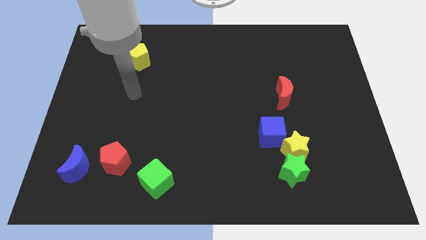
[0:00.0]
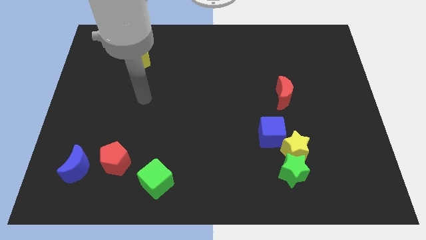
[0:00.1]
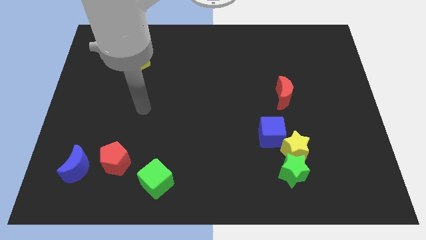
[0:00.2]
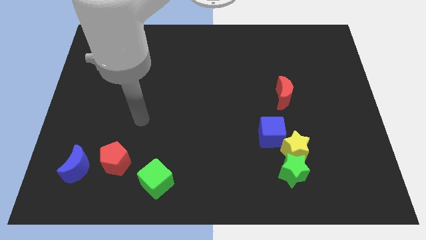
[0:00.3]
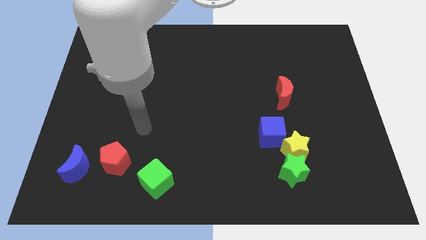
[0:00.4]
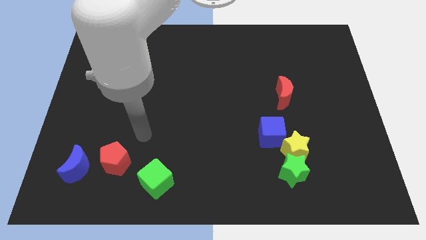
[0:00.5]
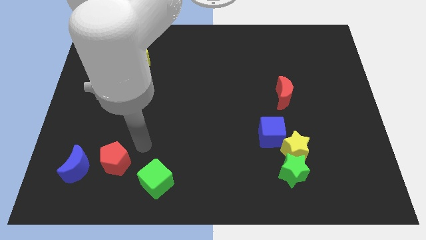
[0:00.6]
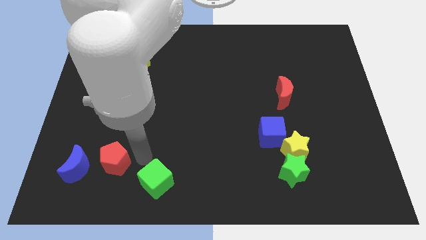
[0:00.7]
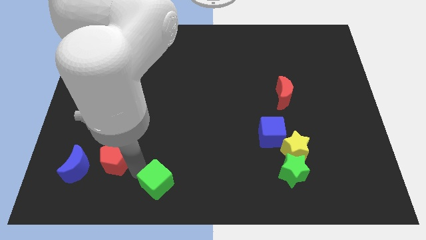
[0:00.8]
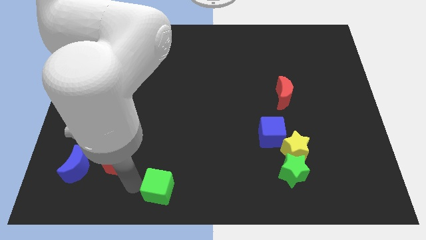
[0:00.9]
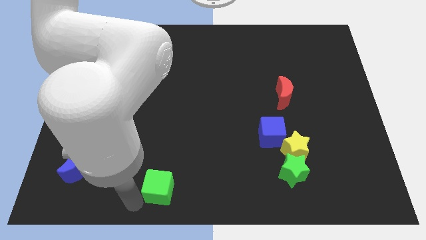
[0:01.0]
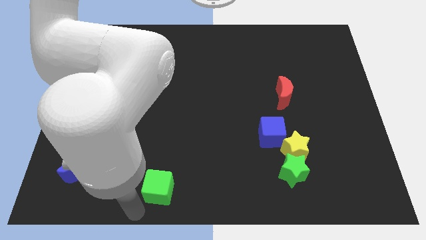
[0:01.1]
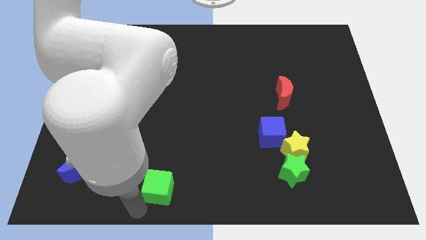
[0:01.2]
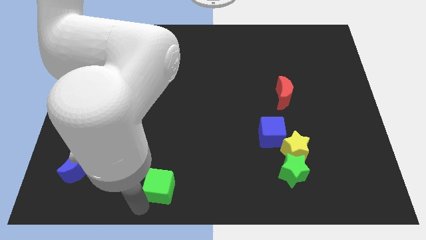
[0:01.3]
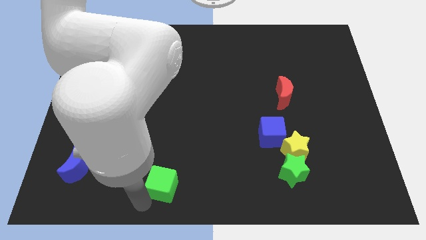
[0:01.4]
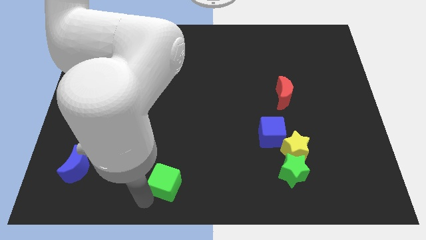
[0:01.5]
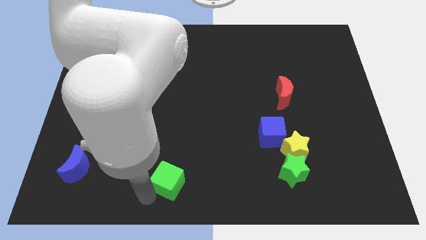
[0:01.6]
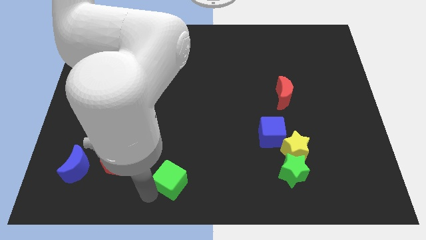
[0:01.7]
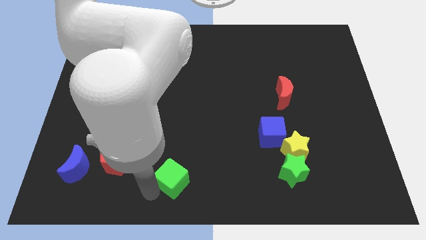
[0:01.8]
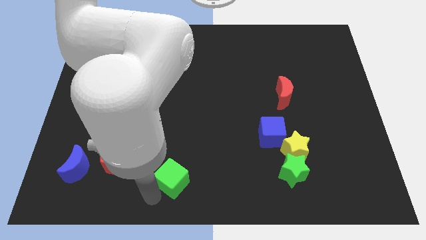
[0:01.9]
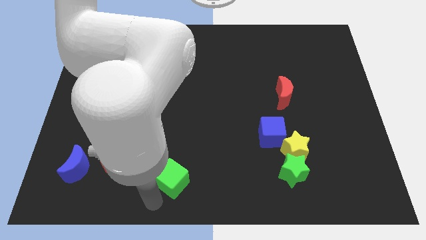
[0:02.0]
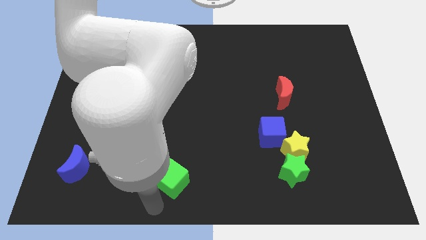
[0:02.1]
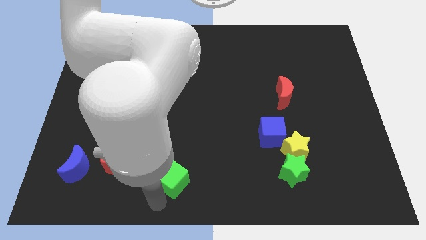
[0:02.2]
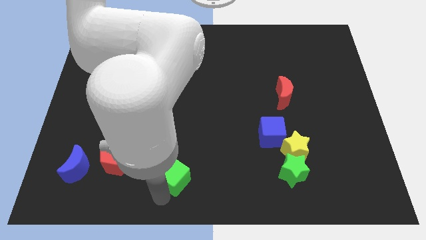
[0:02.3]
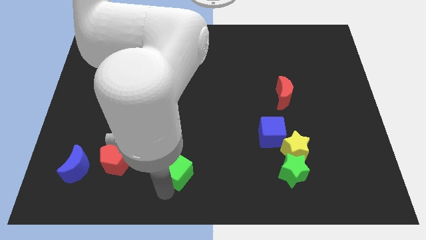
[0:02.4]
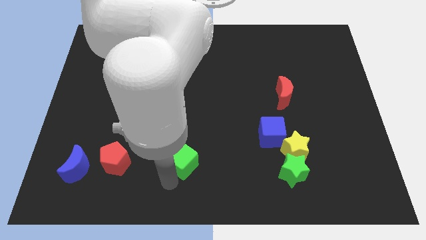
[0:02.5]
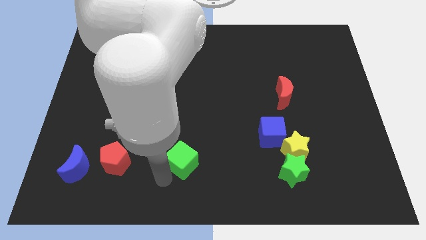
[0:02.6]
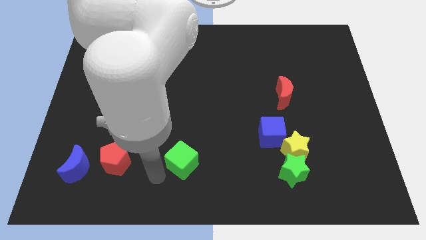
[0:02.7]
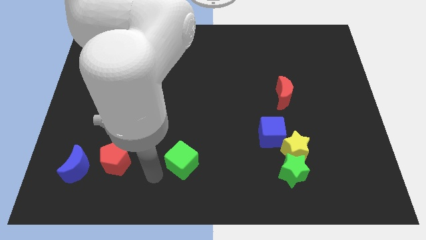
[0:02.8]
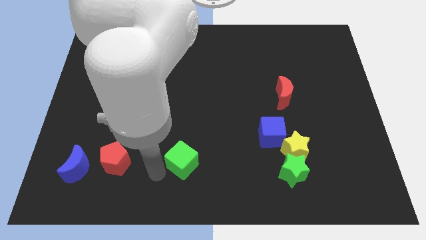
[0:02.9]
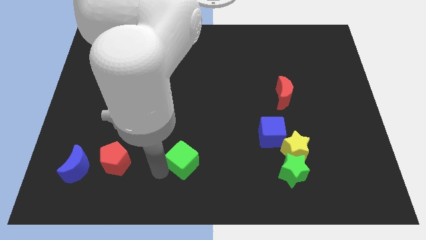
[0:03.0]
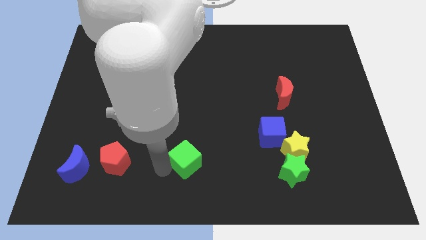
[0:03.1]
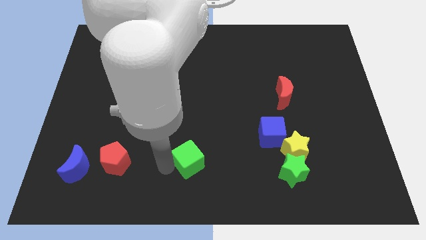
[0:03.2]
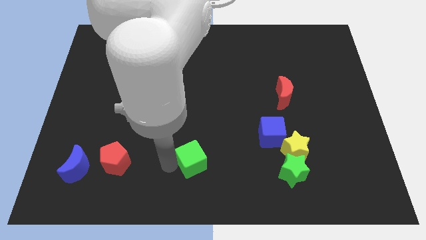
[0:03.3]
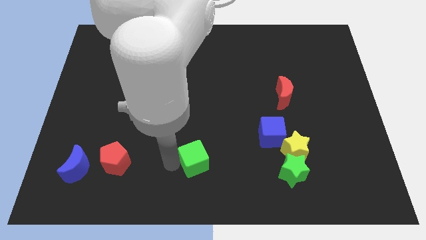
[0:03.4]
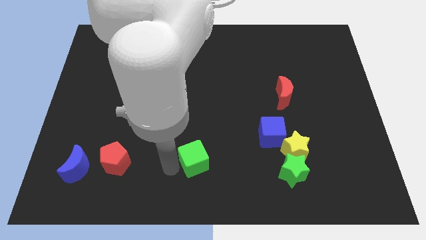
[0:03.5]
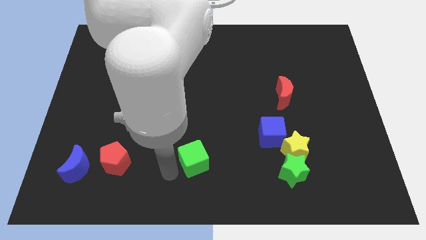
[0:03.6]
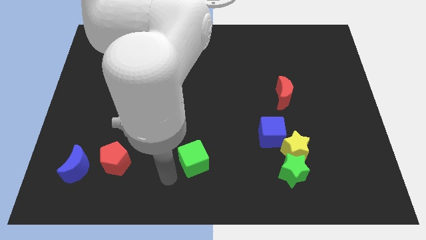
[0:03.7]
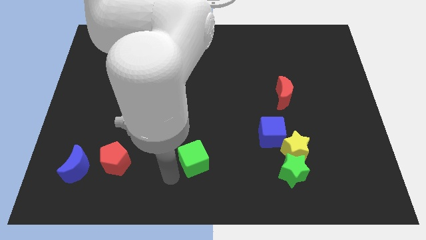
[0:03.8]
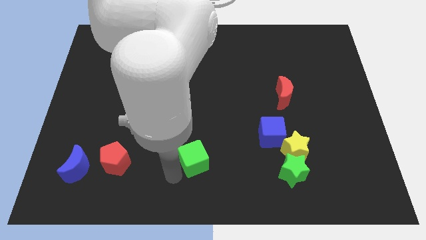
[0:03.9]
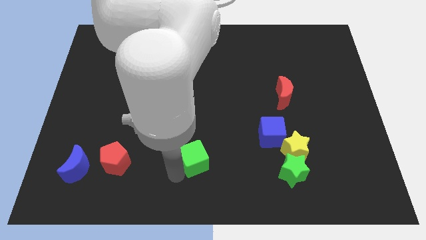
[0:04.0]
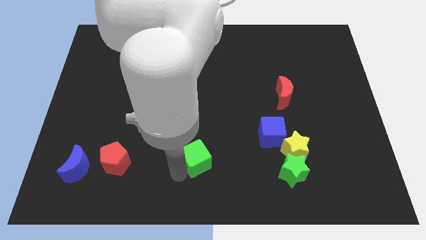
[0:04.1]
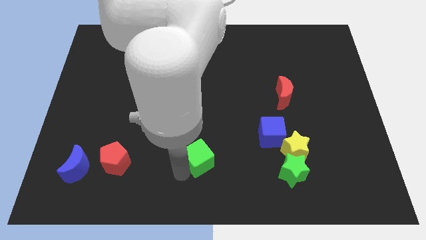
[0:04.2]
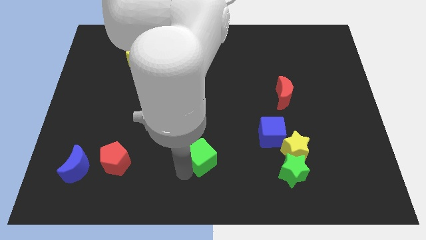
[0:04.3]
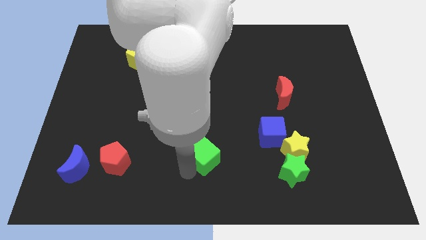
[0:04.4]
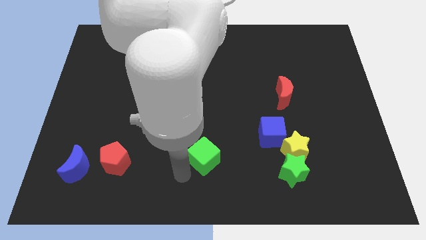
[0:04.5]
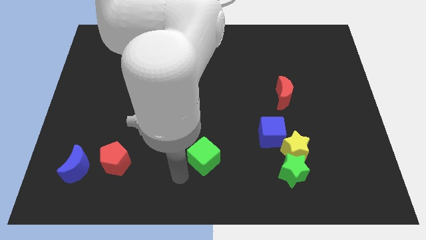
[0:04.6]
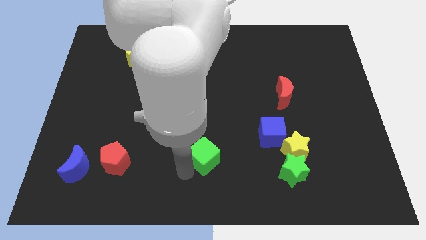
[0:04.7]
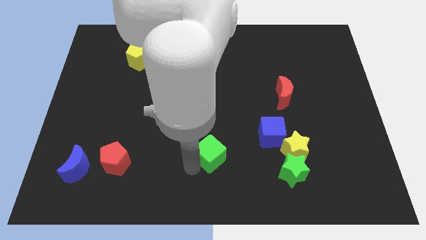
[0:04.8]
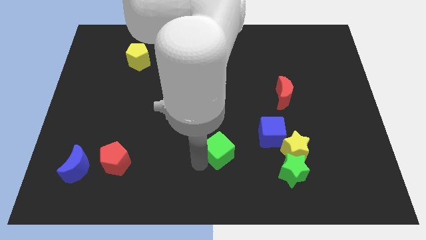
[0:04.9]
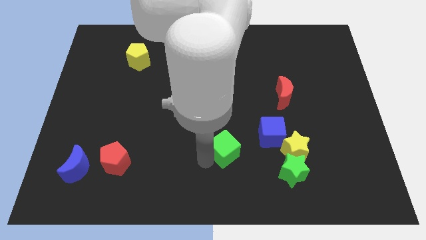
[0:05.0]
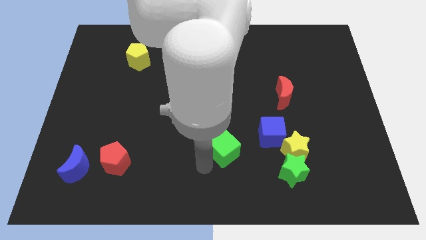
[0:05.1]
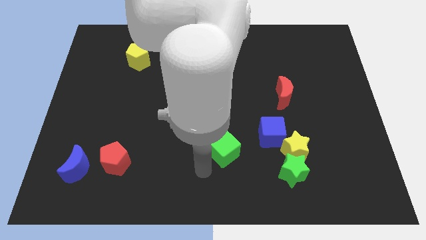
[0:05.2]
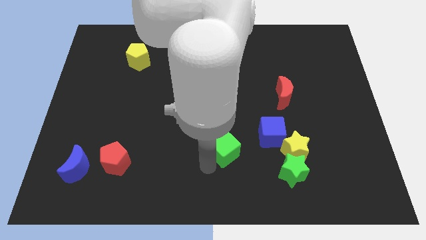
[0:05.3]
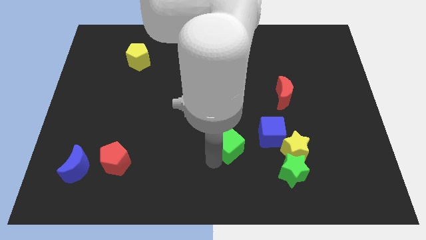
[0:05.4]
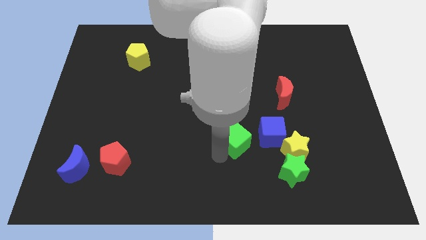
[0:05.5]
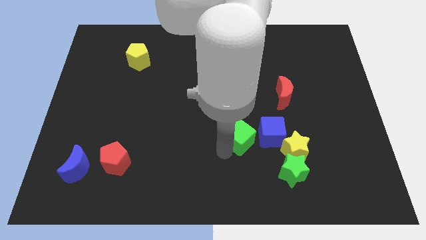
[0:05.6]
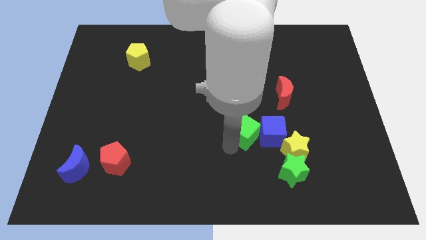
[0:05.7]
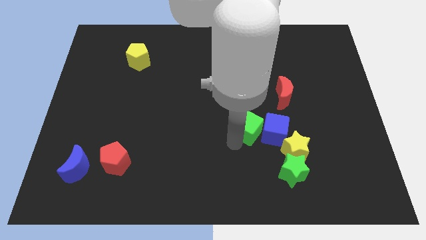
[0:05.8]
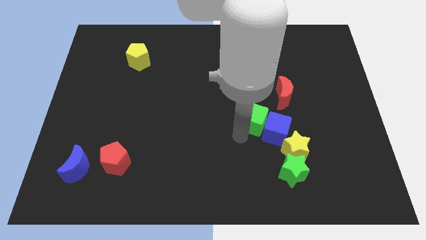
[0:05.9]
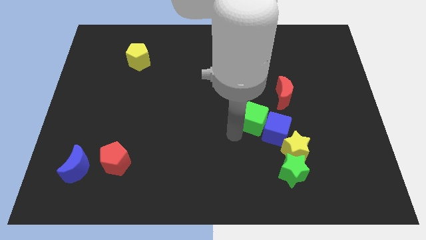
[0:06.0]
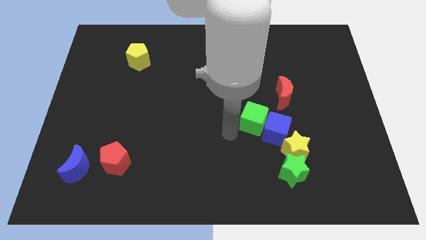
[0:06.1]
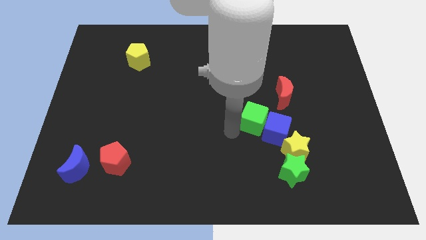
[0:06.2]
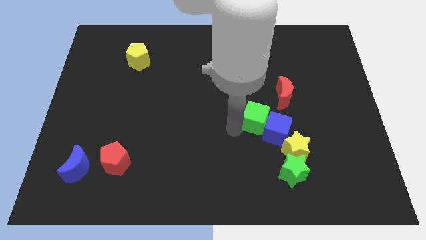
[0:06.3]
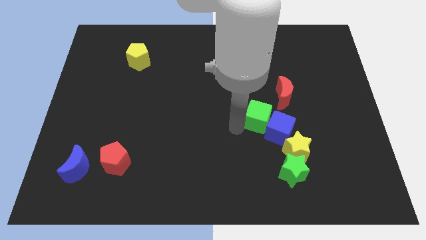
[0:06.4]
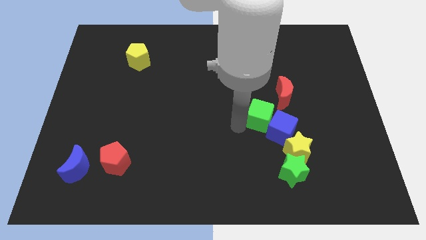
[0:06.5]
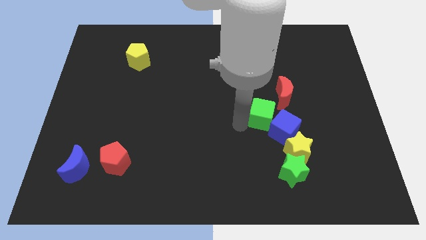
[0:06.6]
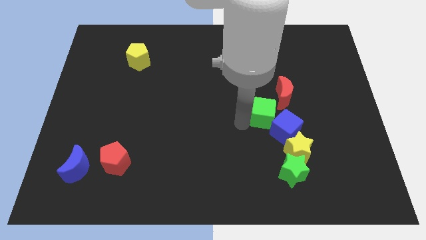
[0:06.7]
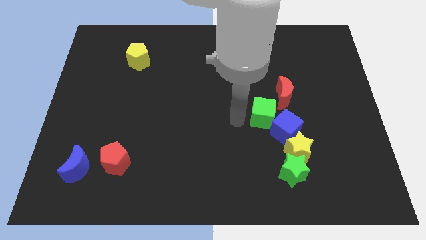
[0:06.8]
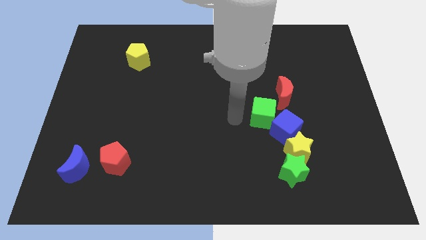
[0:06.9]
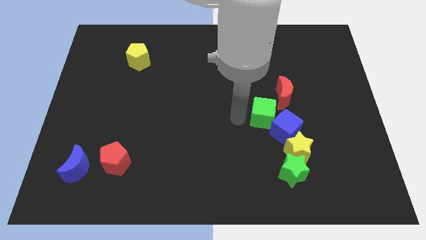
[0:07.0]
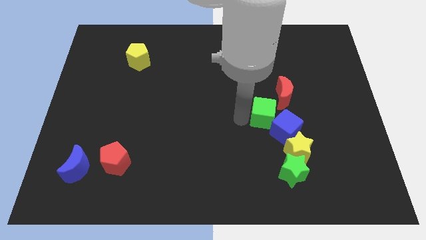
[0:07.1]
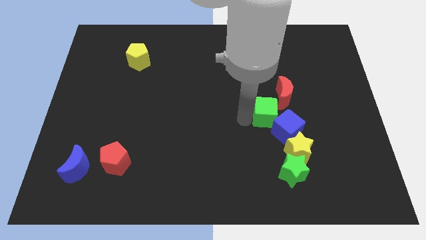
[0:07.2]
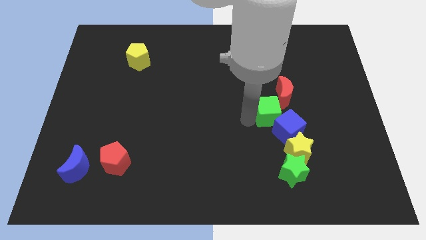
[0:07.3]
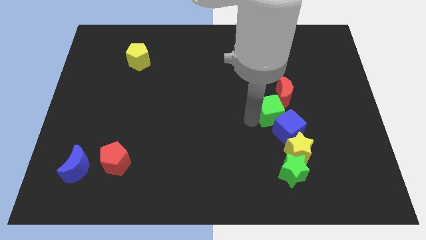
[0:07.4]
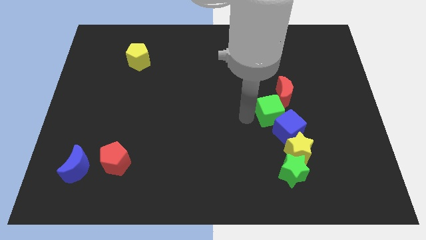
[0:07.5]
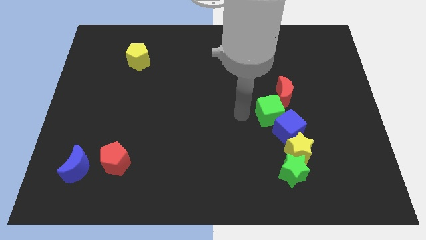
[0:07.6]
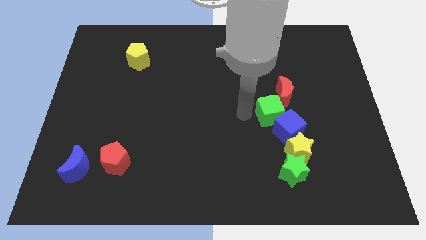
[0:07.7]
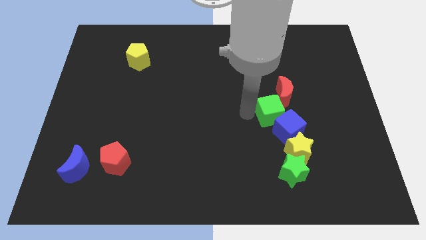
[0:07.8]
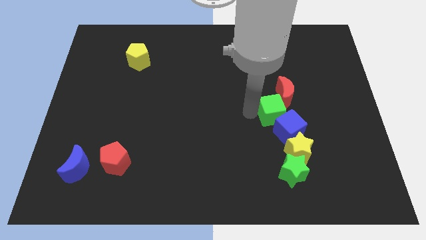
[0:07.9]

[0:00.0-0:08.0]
slide the green cube to the top of the yellow star
